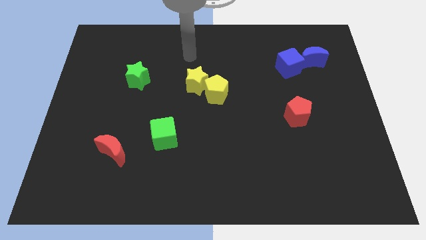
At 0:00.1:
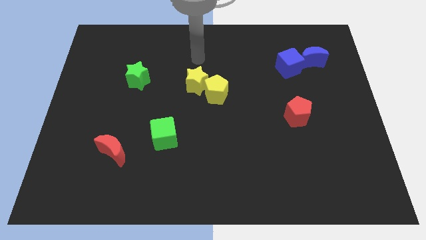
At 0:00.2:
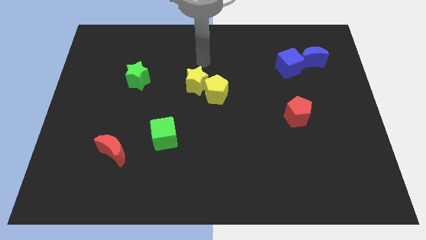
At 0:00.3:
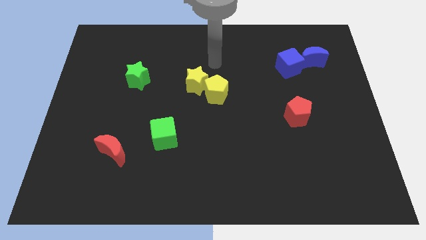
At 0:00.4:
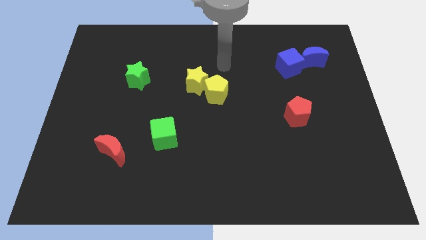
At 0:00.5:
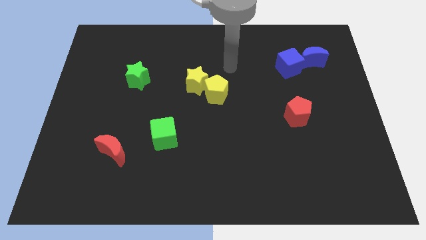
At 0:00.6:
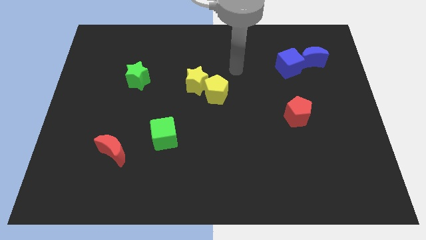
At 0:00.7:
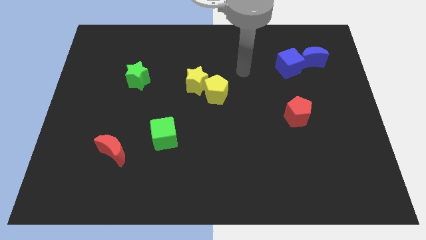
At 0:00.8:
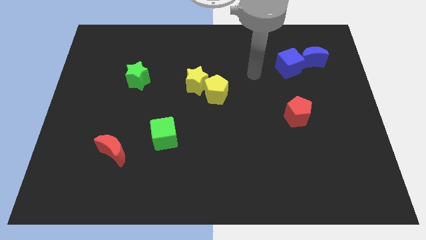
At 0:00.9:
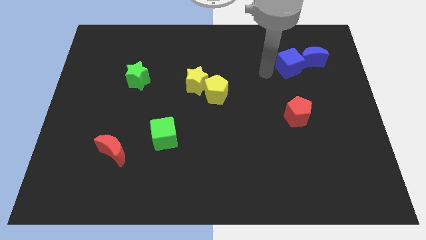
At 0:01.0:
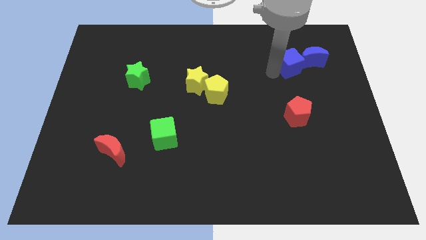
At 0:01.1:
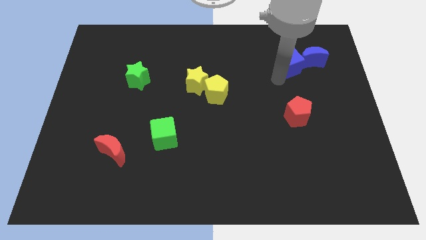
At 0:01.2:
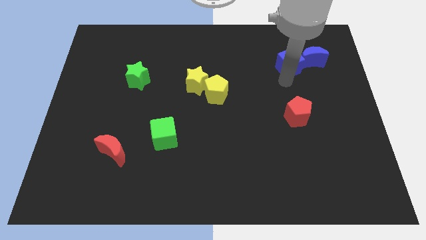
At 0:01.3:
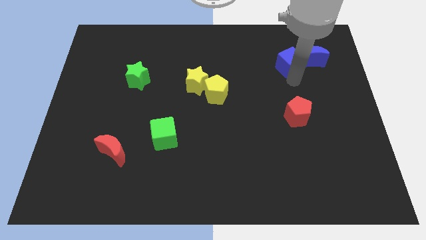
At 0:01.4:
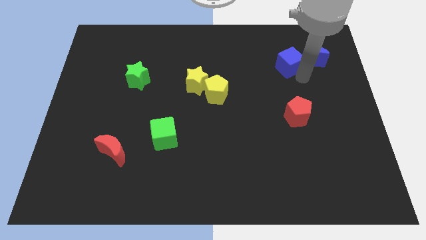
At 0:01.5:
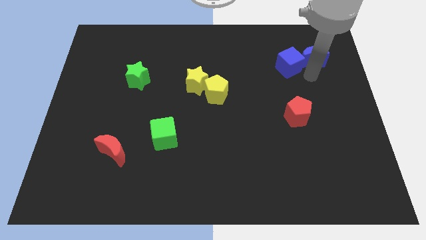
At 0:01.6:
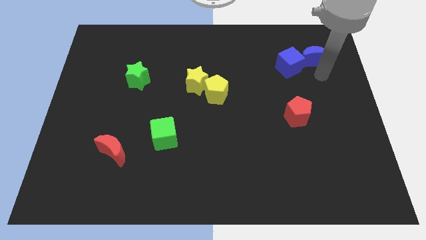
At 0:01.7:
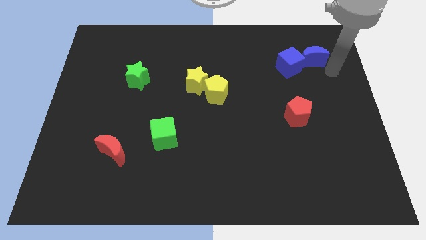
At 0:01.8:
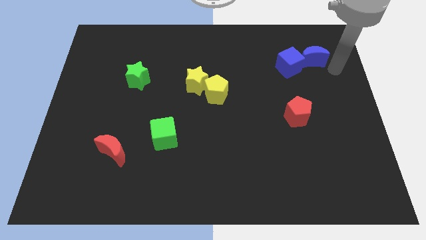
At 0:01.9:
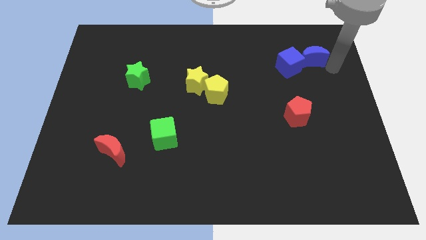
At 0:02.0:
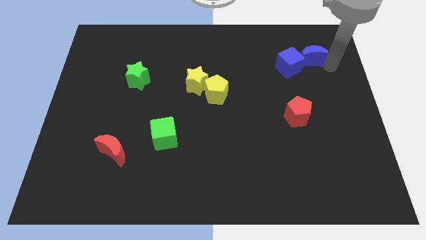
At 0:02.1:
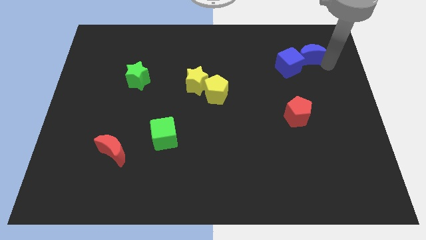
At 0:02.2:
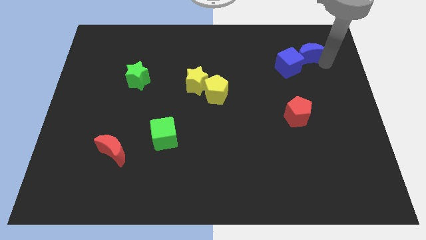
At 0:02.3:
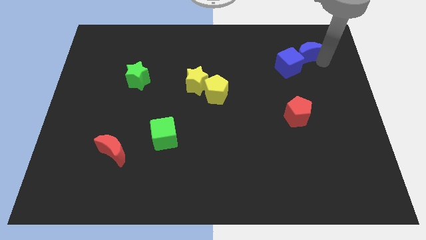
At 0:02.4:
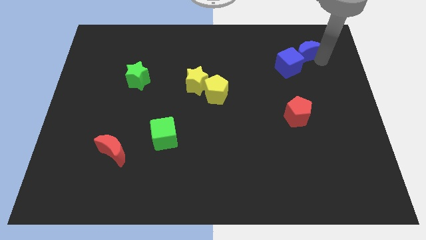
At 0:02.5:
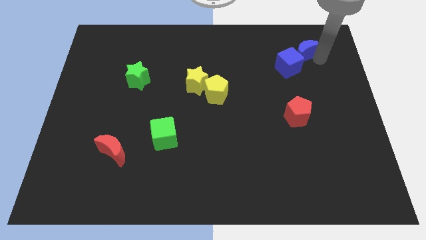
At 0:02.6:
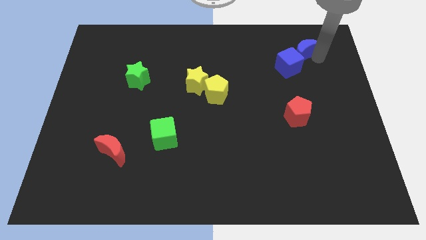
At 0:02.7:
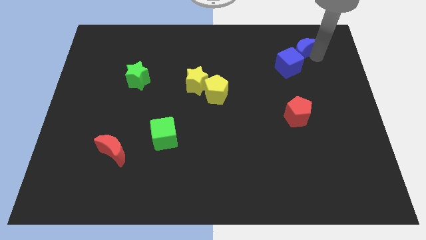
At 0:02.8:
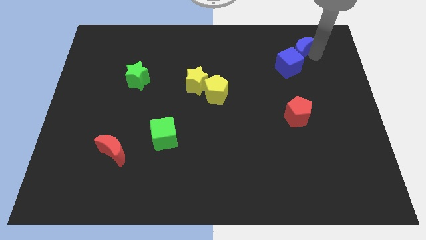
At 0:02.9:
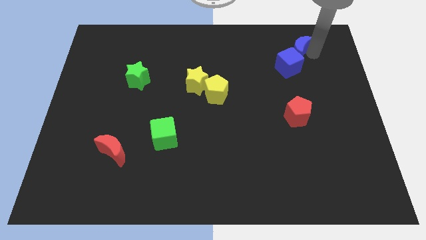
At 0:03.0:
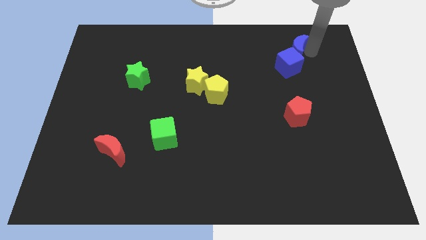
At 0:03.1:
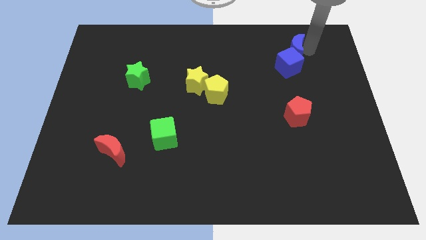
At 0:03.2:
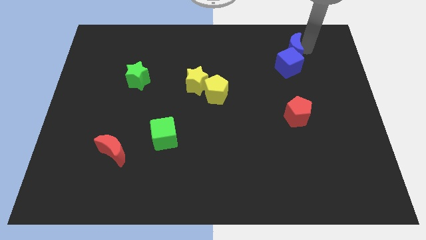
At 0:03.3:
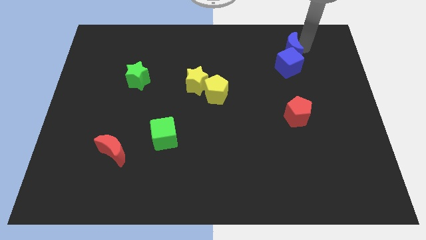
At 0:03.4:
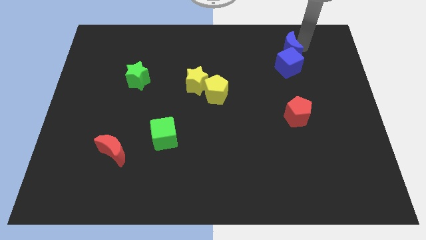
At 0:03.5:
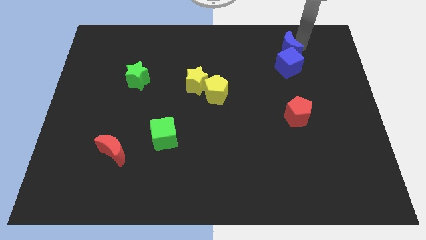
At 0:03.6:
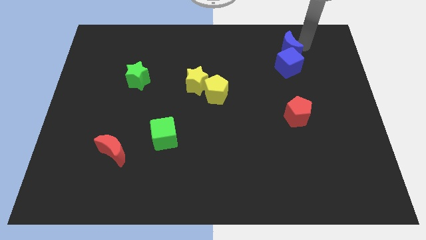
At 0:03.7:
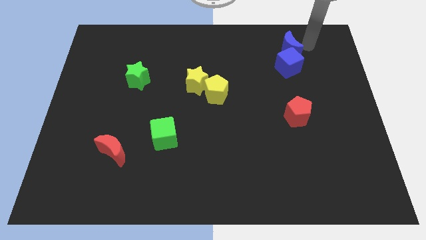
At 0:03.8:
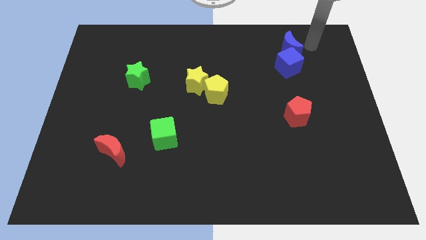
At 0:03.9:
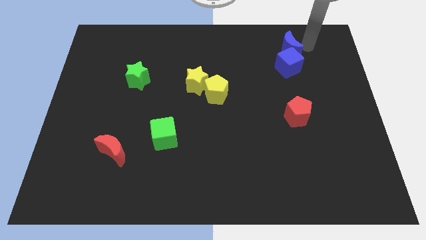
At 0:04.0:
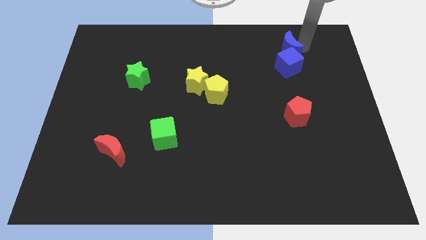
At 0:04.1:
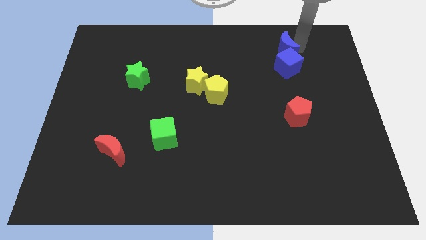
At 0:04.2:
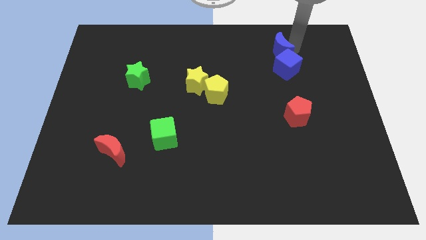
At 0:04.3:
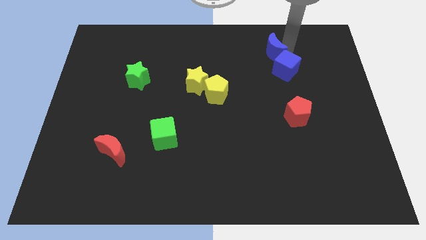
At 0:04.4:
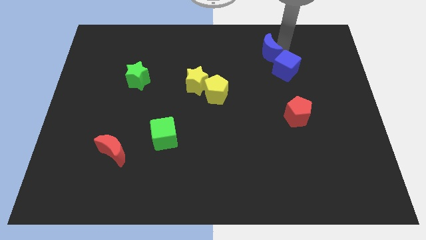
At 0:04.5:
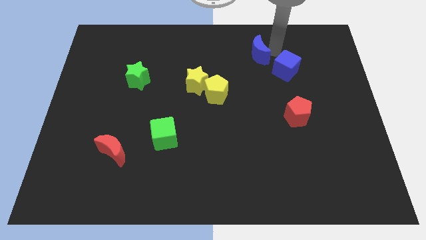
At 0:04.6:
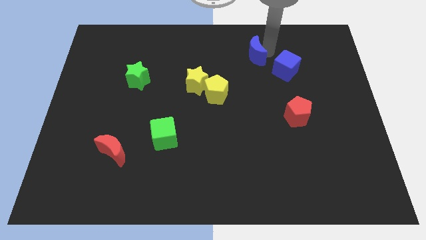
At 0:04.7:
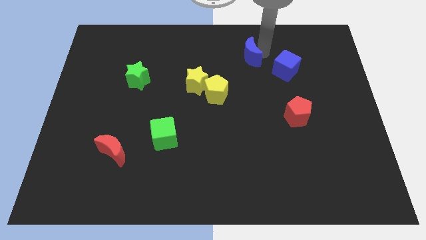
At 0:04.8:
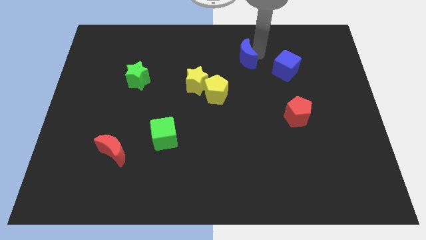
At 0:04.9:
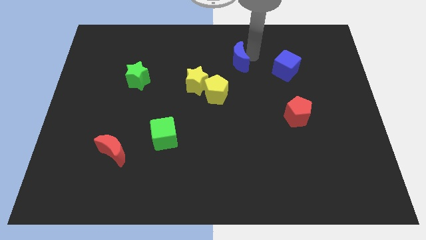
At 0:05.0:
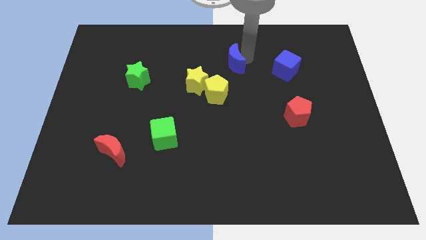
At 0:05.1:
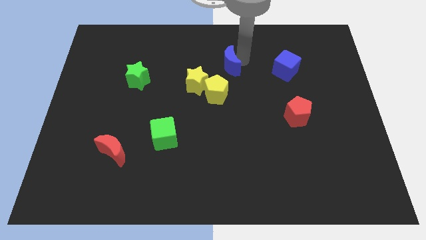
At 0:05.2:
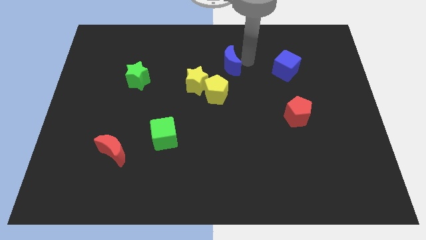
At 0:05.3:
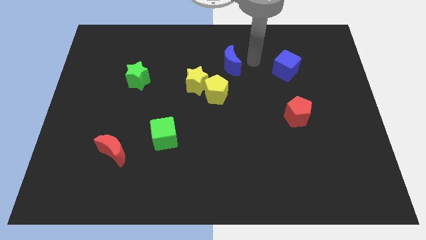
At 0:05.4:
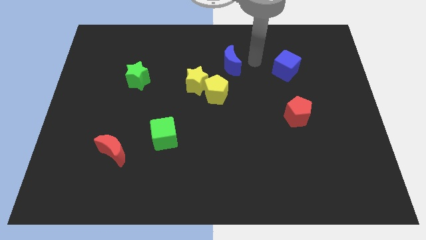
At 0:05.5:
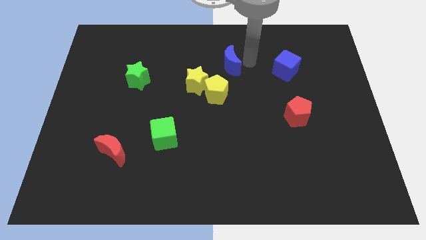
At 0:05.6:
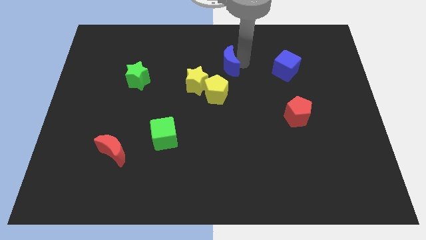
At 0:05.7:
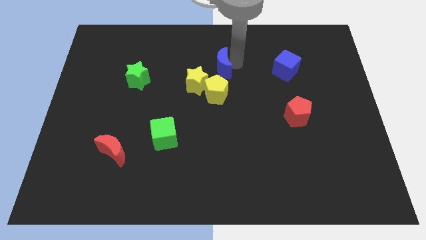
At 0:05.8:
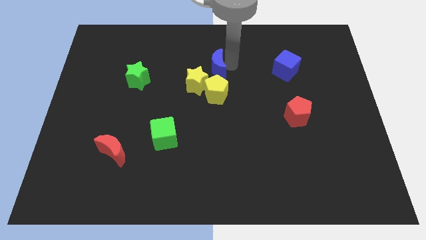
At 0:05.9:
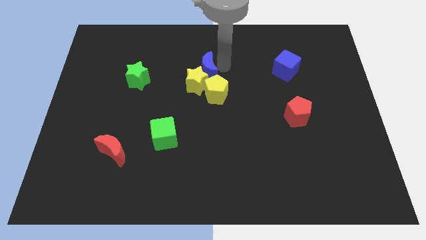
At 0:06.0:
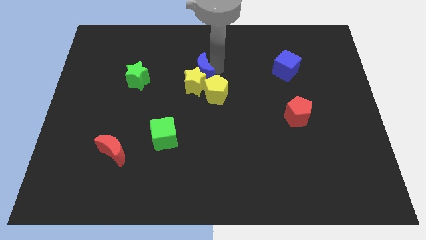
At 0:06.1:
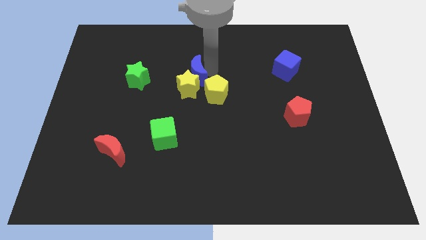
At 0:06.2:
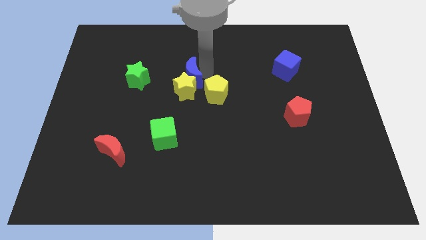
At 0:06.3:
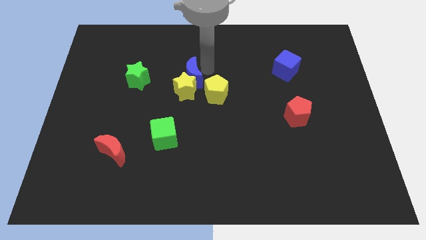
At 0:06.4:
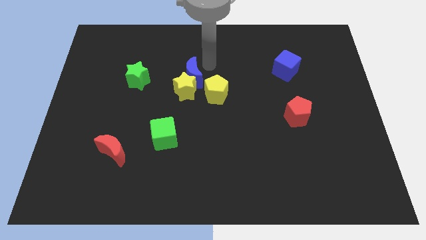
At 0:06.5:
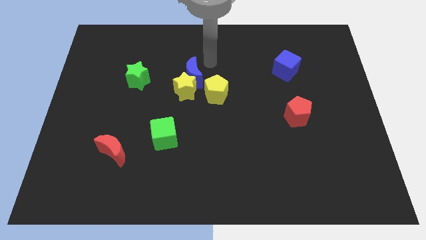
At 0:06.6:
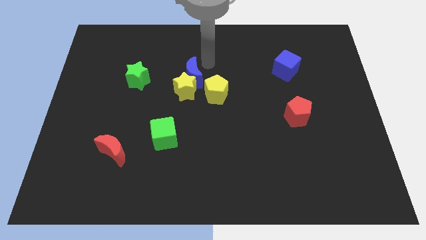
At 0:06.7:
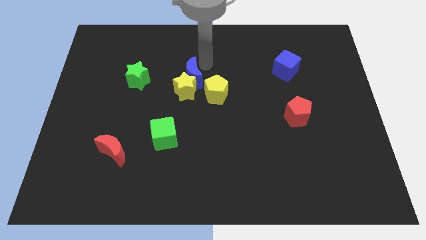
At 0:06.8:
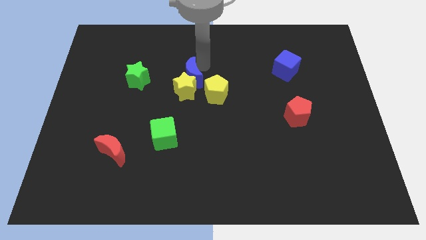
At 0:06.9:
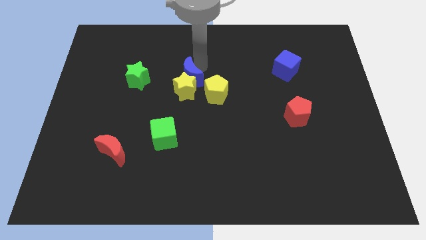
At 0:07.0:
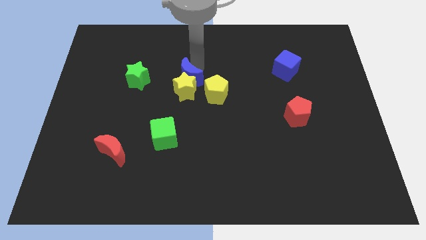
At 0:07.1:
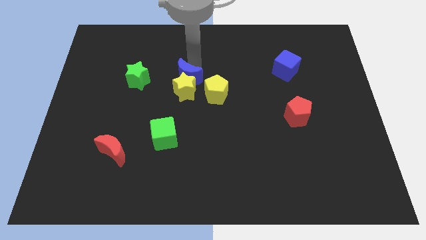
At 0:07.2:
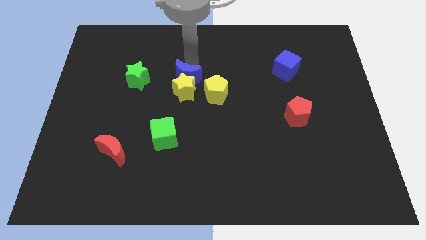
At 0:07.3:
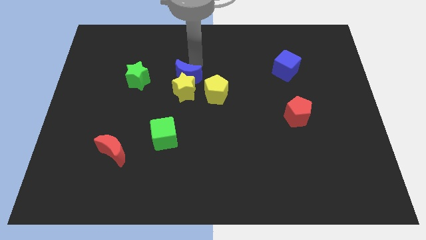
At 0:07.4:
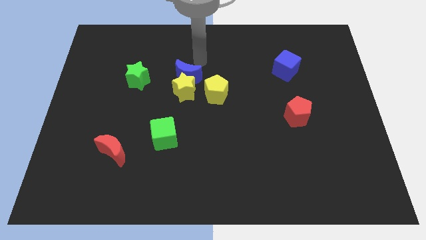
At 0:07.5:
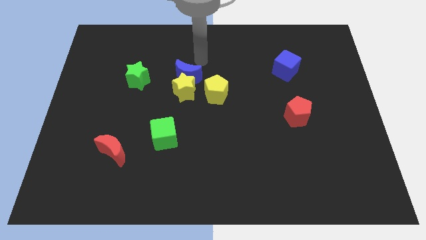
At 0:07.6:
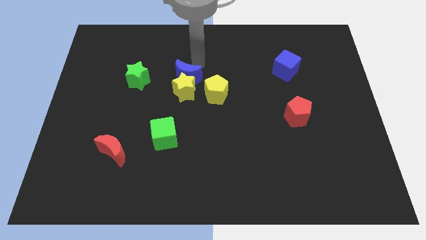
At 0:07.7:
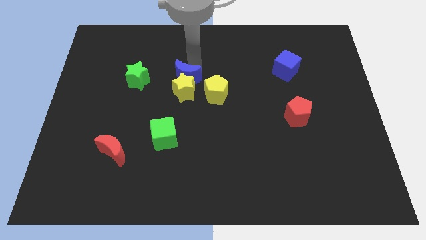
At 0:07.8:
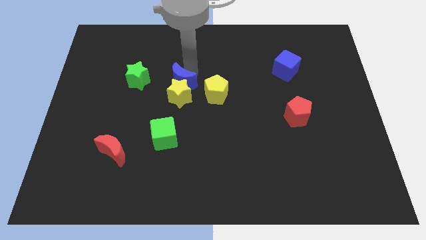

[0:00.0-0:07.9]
push the blue moon left of the yellow pentagon
